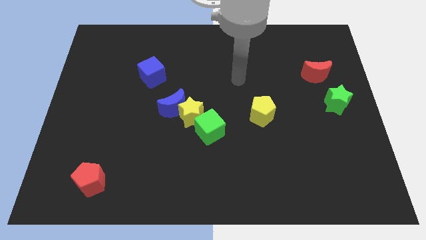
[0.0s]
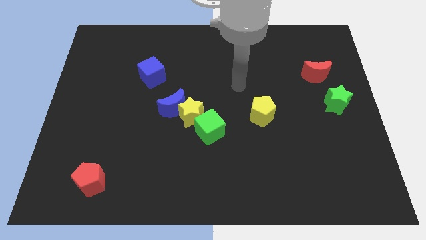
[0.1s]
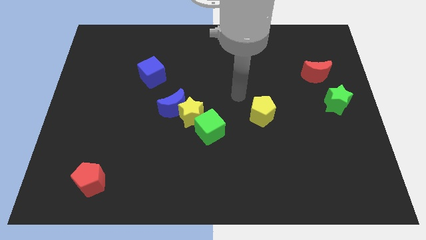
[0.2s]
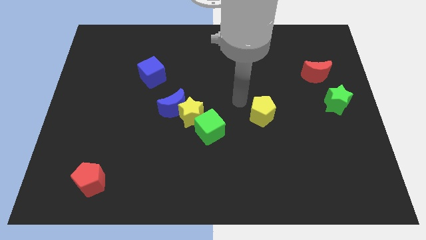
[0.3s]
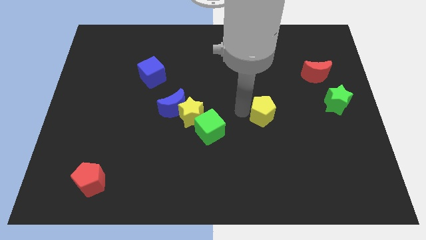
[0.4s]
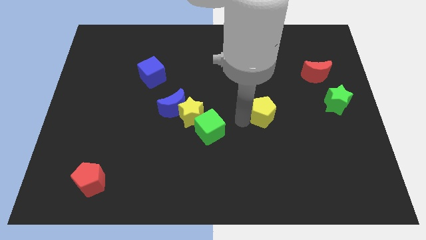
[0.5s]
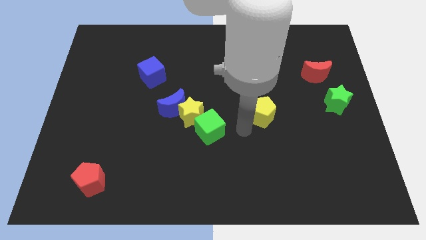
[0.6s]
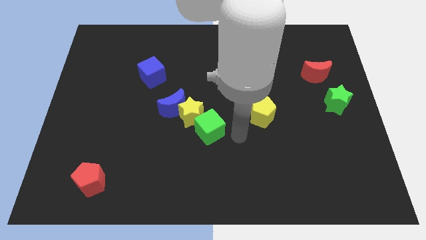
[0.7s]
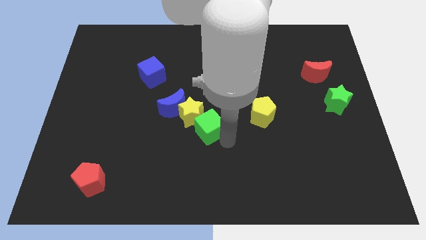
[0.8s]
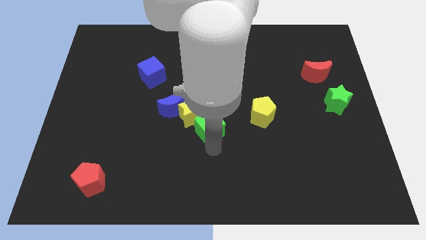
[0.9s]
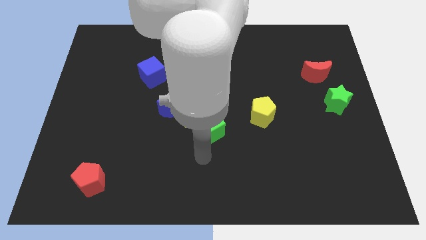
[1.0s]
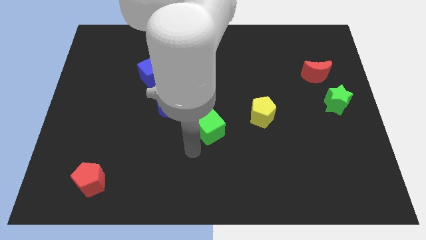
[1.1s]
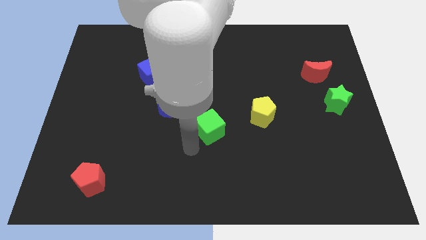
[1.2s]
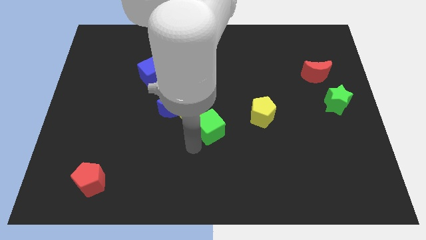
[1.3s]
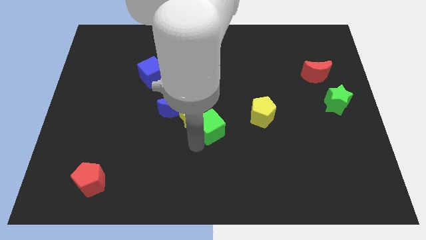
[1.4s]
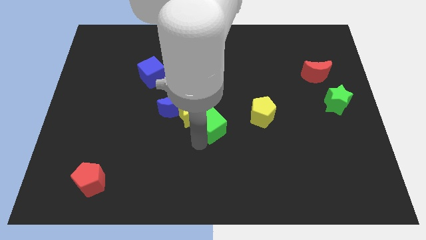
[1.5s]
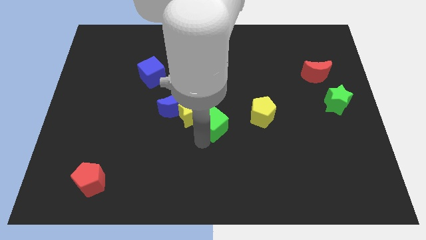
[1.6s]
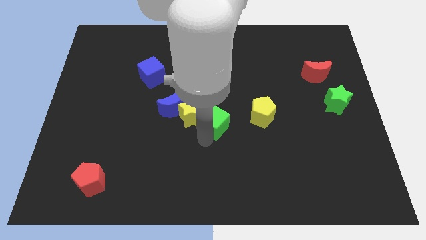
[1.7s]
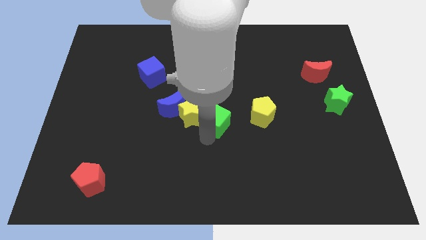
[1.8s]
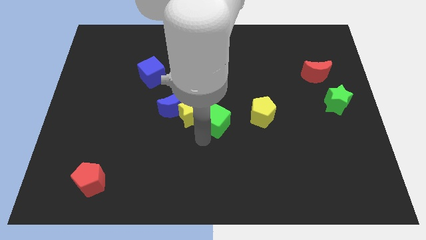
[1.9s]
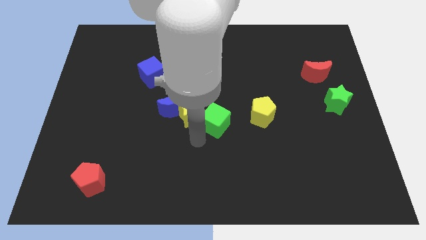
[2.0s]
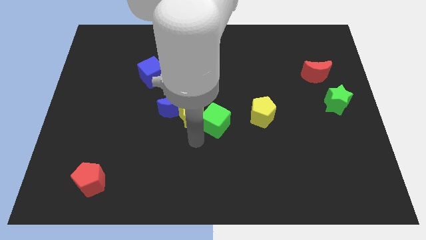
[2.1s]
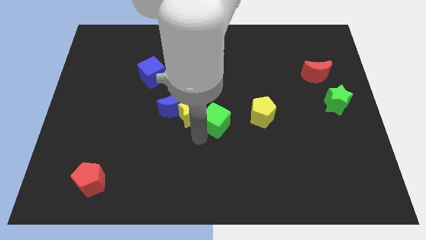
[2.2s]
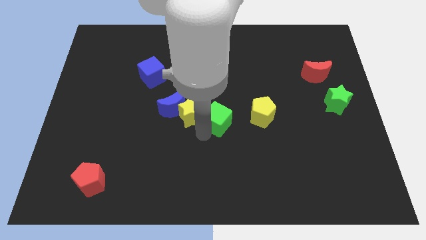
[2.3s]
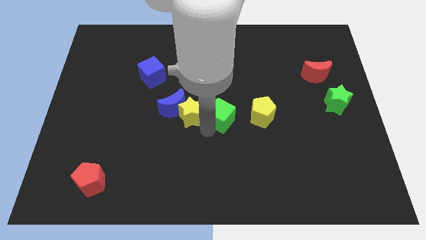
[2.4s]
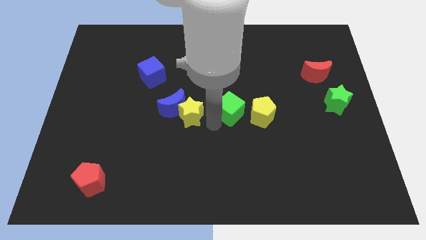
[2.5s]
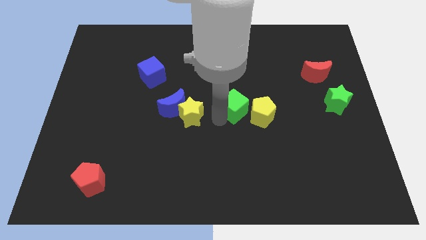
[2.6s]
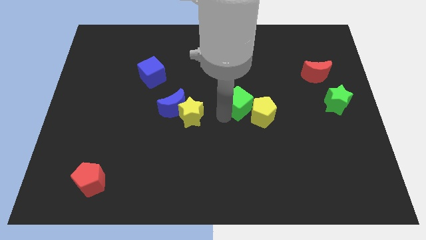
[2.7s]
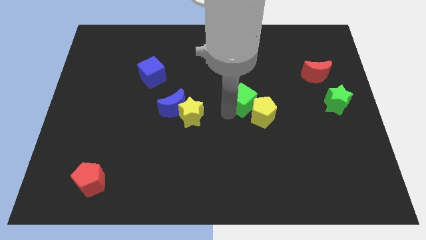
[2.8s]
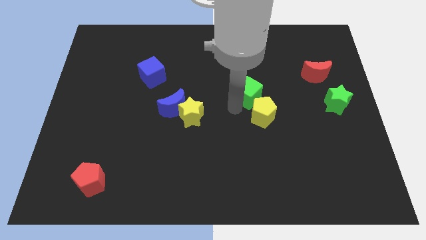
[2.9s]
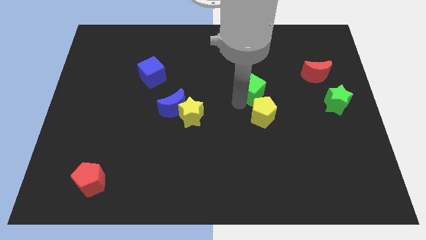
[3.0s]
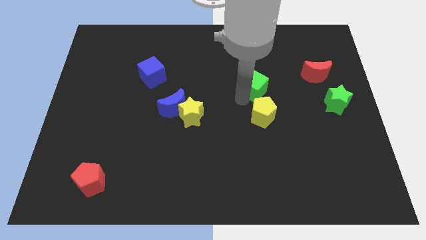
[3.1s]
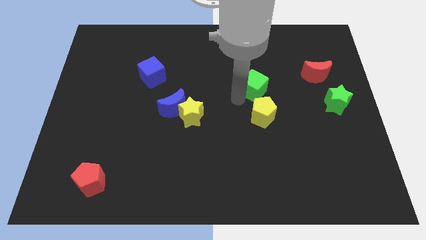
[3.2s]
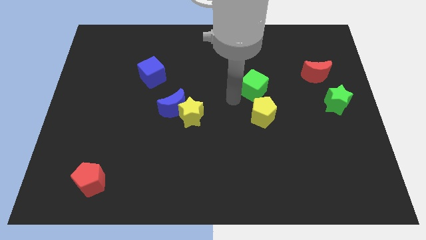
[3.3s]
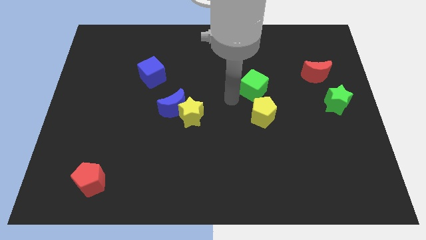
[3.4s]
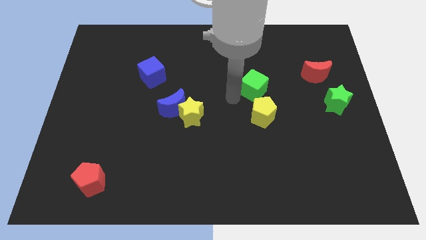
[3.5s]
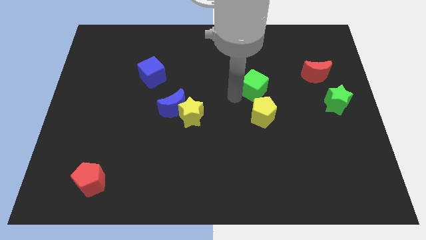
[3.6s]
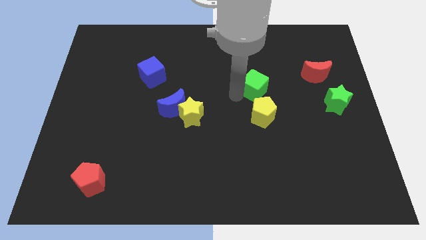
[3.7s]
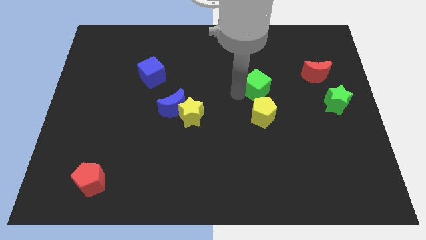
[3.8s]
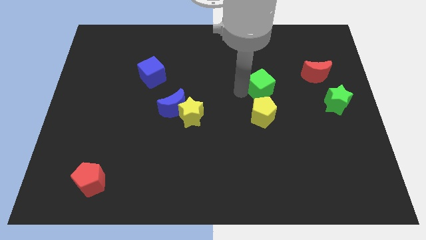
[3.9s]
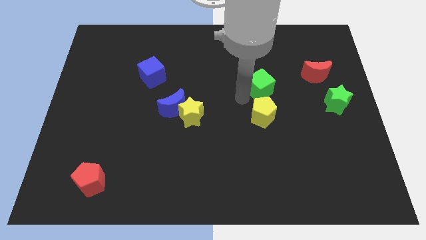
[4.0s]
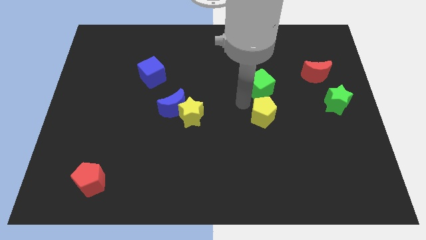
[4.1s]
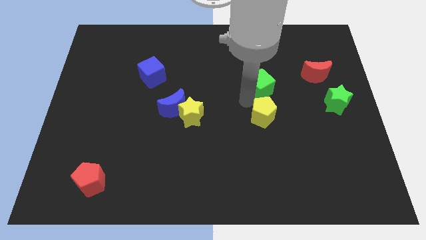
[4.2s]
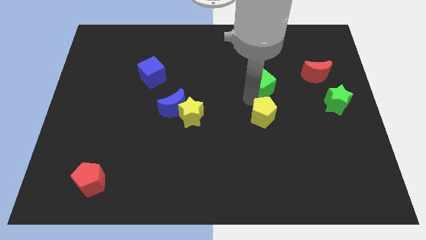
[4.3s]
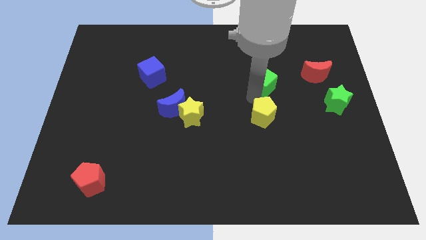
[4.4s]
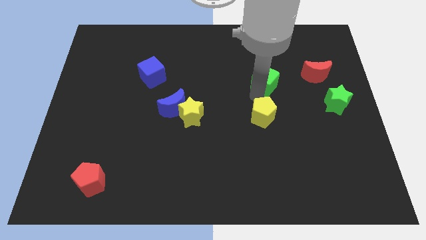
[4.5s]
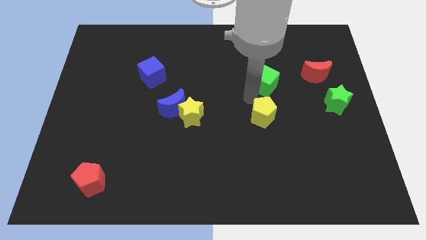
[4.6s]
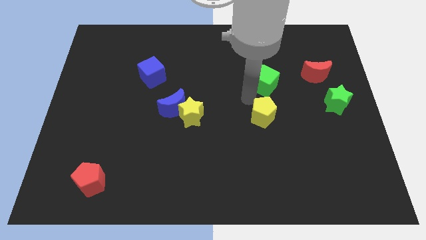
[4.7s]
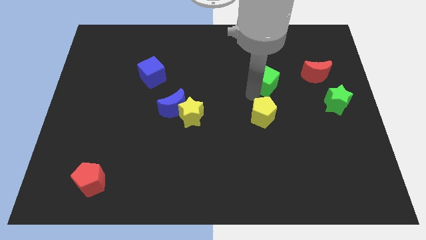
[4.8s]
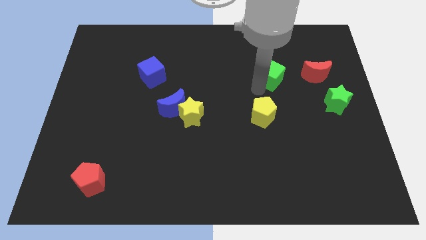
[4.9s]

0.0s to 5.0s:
slide the green cube upwards and to the right diagonally

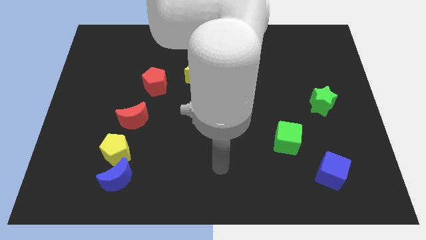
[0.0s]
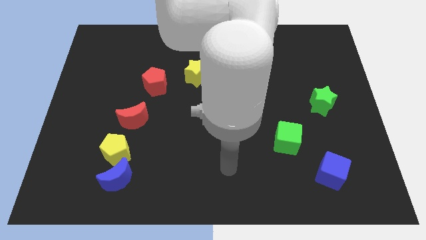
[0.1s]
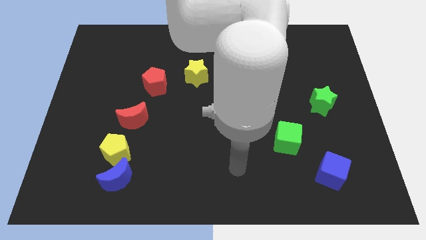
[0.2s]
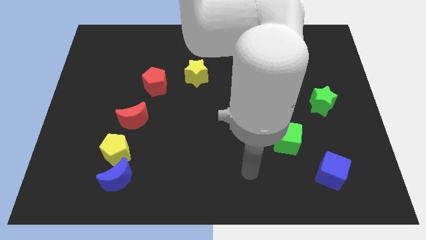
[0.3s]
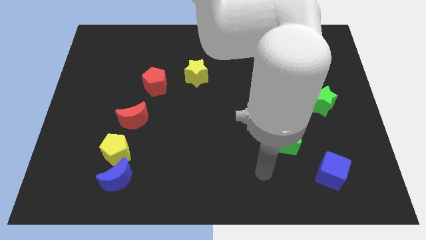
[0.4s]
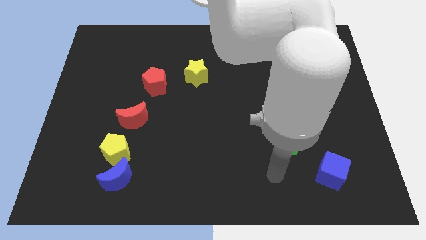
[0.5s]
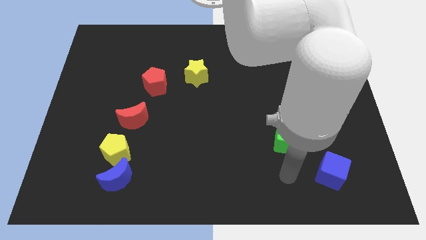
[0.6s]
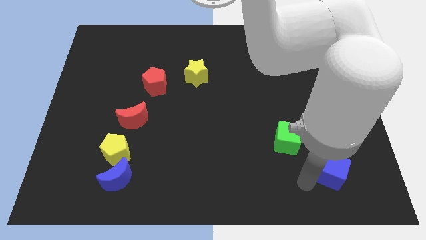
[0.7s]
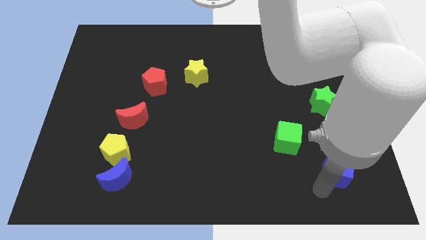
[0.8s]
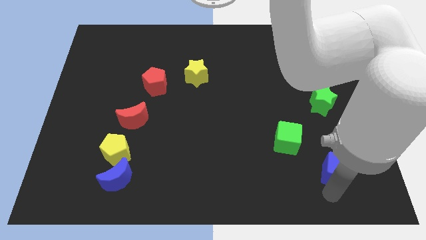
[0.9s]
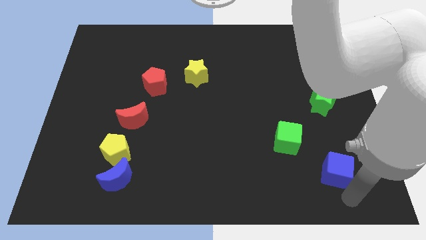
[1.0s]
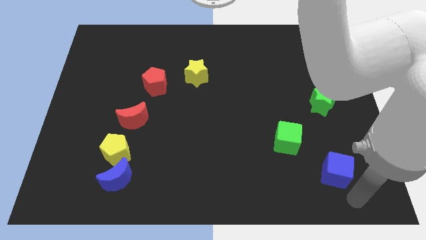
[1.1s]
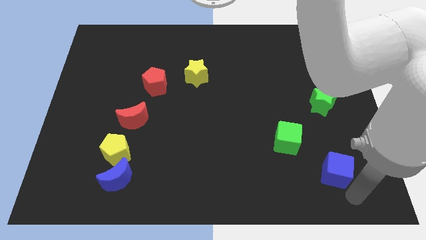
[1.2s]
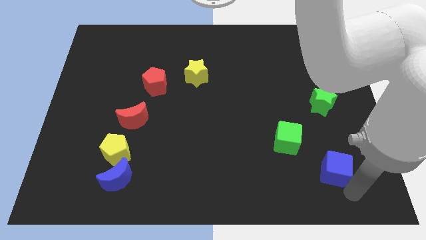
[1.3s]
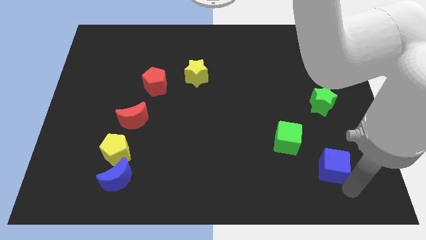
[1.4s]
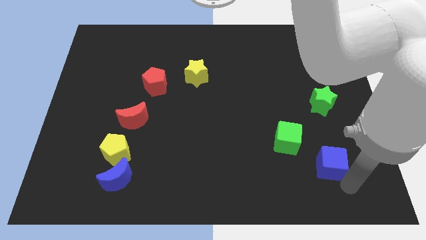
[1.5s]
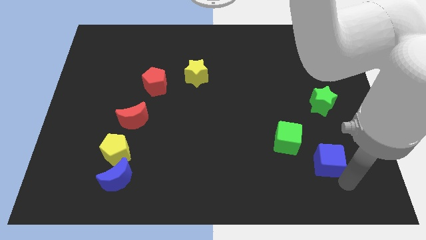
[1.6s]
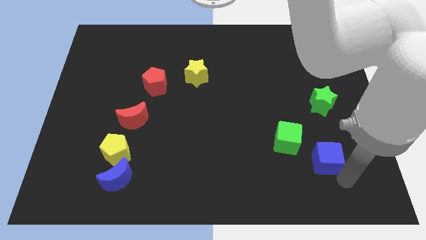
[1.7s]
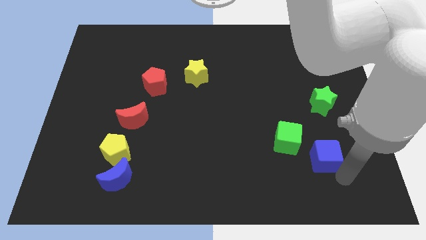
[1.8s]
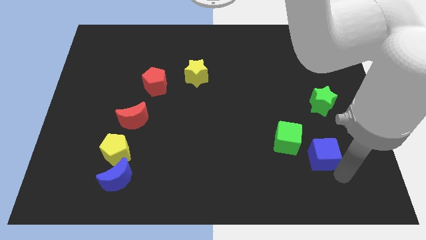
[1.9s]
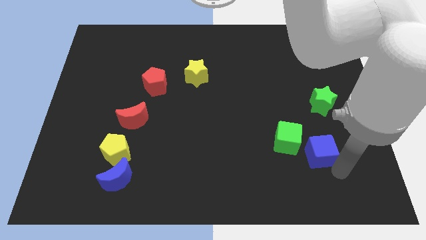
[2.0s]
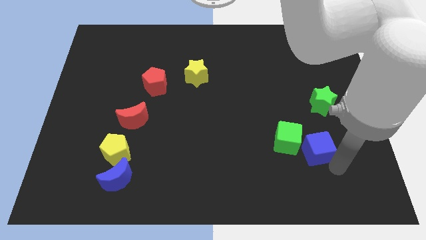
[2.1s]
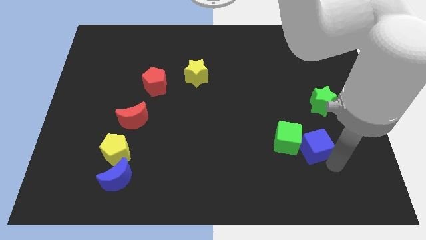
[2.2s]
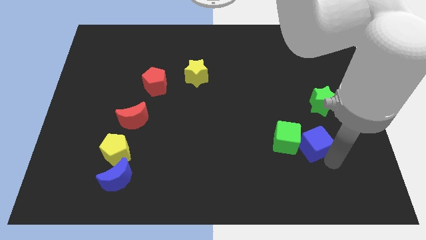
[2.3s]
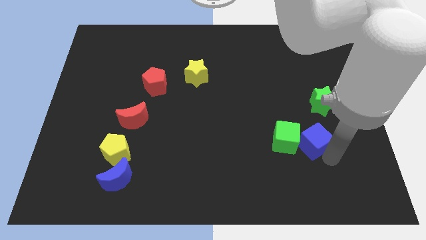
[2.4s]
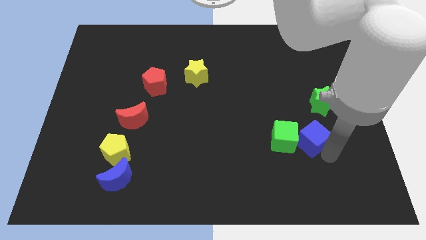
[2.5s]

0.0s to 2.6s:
slightly push the blue cube upwards and to the left diagonally

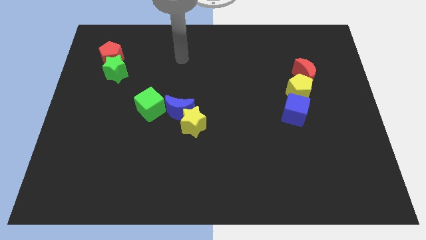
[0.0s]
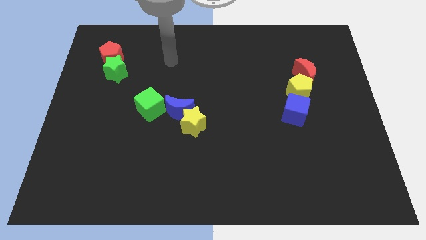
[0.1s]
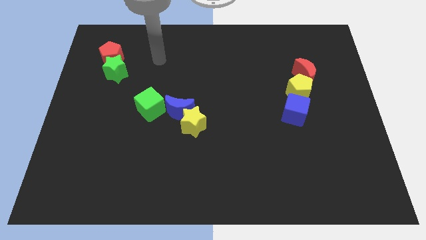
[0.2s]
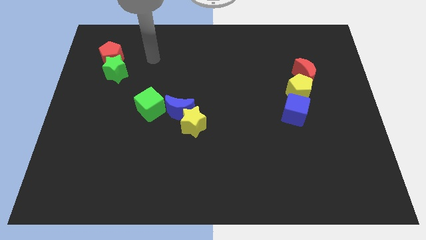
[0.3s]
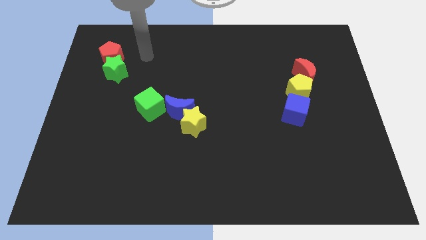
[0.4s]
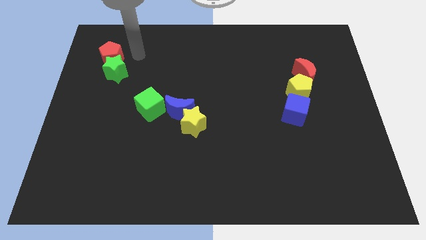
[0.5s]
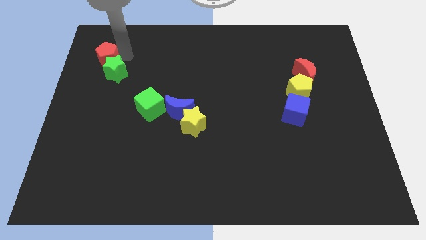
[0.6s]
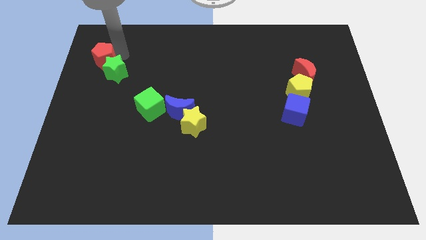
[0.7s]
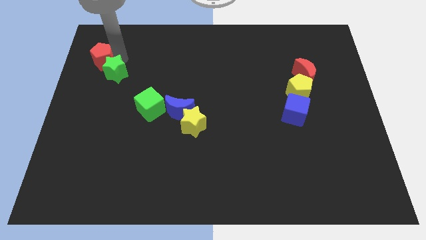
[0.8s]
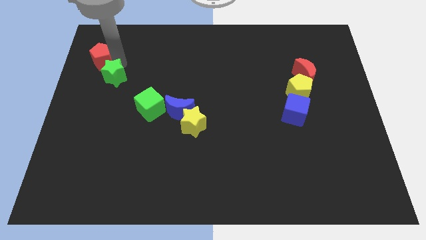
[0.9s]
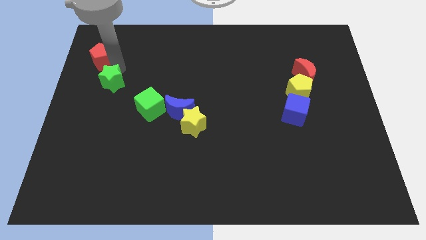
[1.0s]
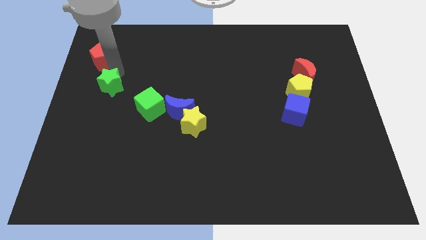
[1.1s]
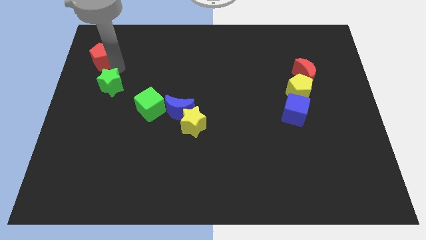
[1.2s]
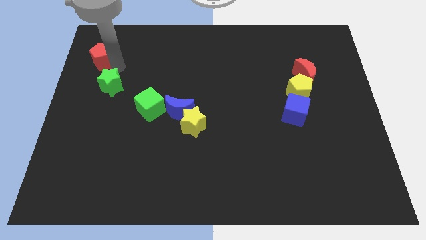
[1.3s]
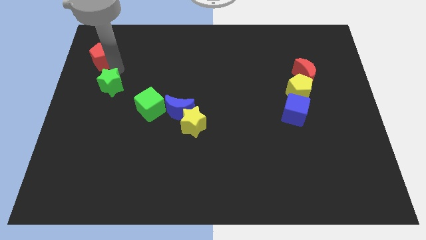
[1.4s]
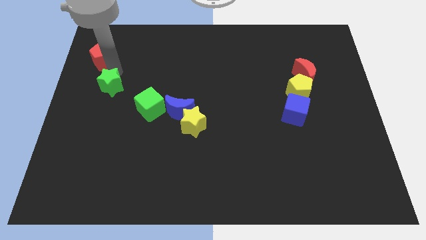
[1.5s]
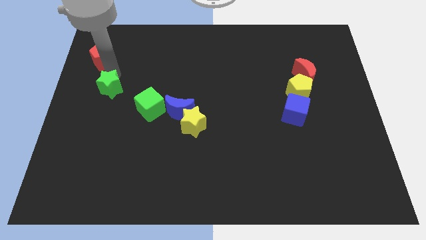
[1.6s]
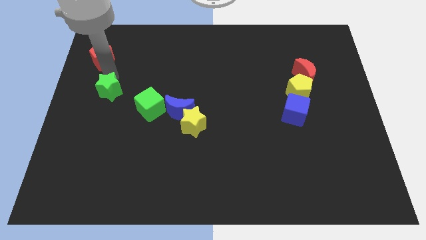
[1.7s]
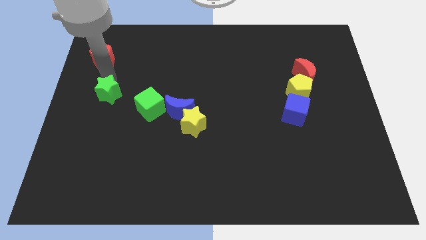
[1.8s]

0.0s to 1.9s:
slightly move the green star downwards
